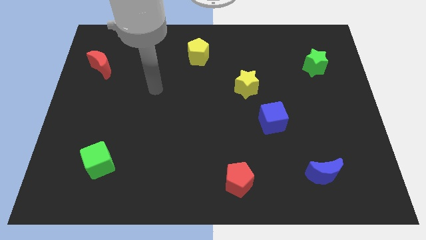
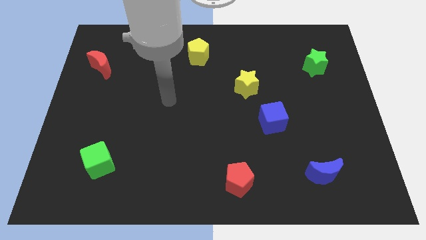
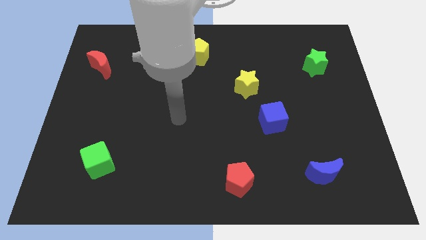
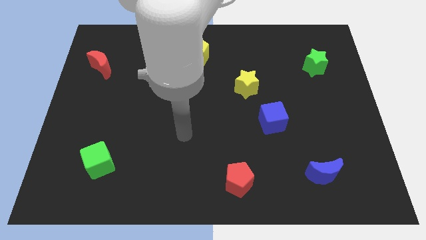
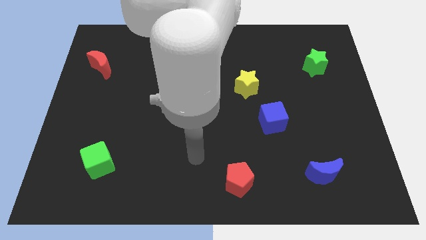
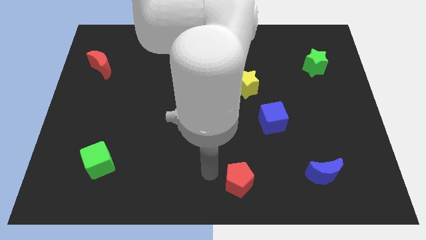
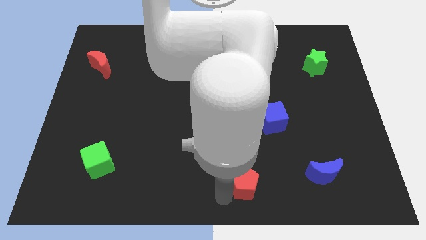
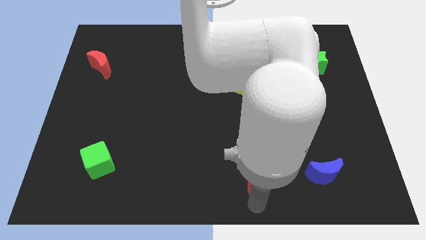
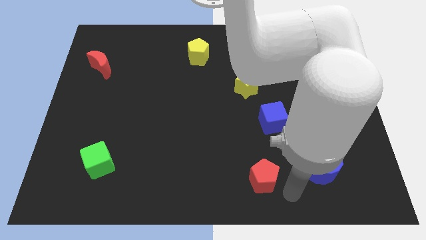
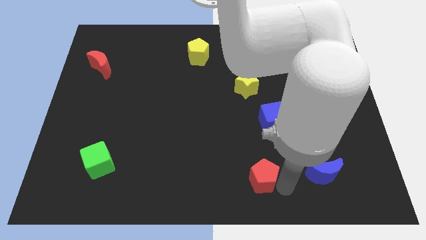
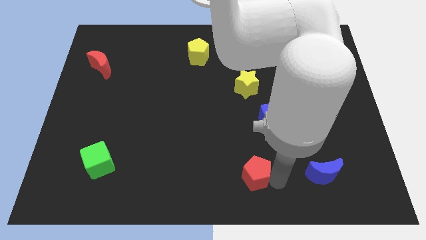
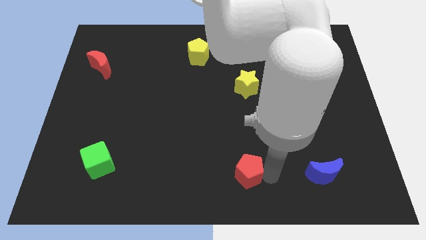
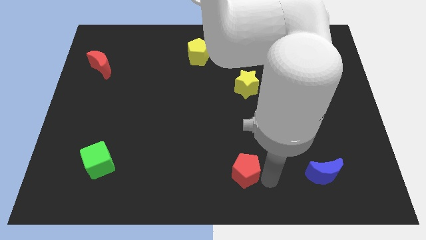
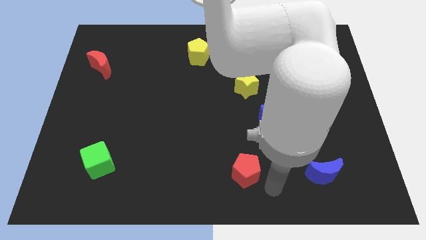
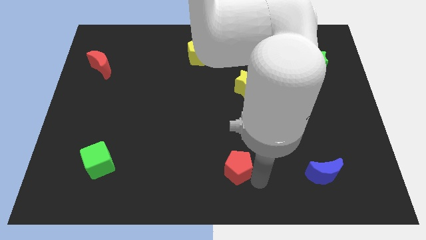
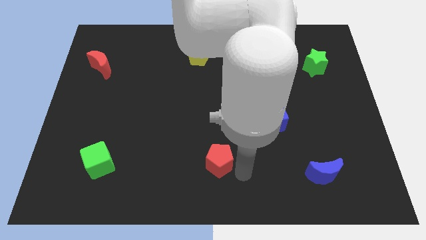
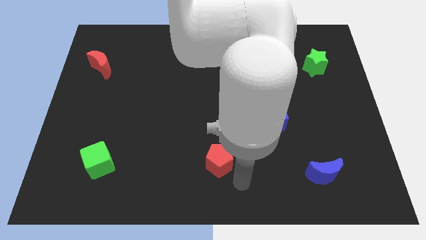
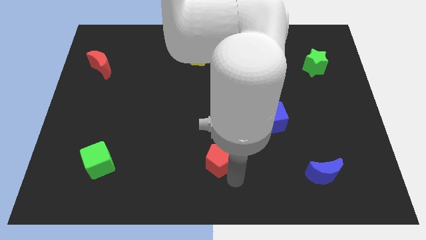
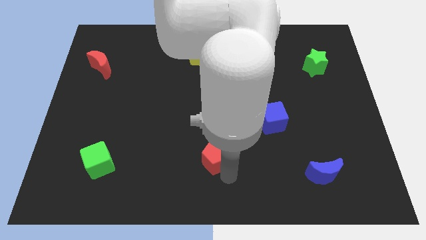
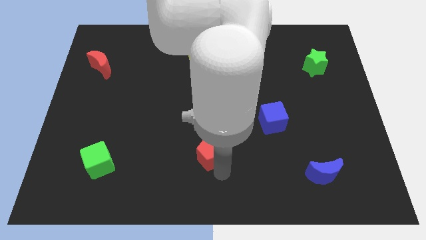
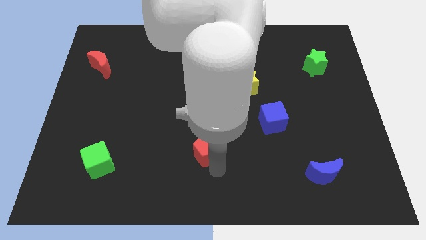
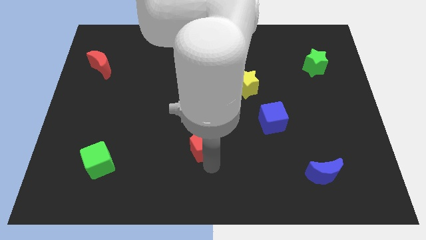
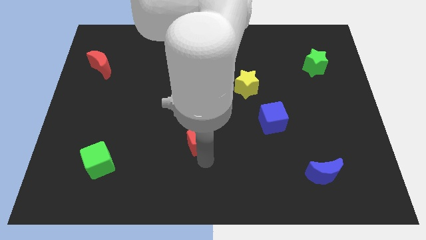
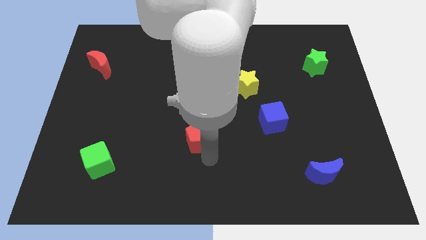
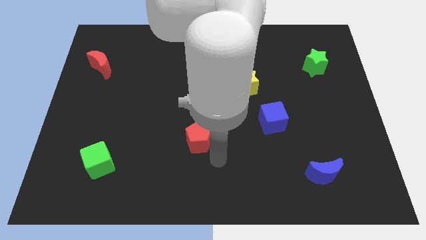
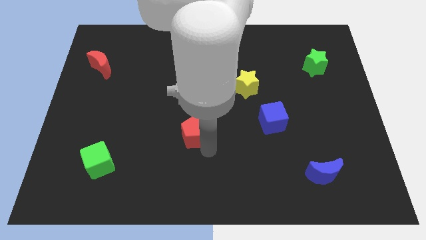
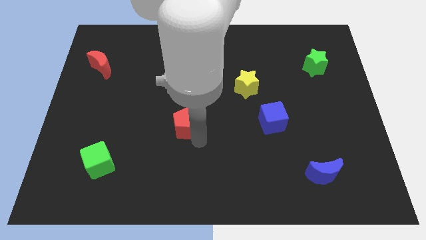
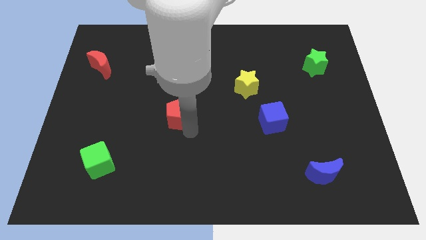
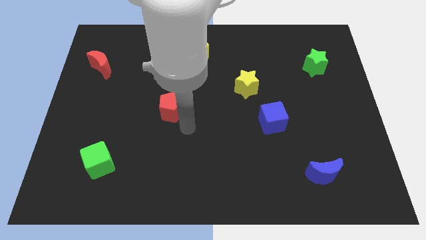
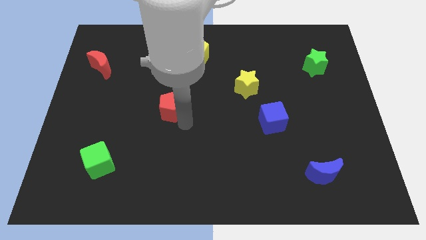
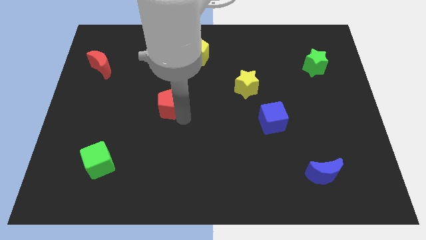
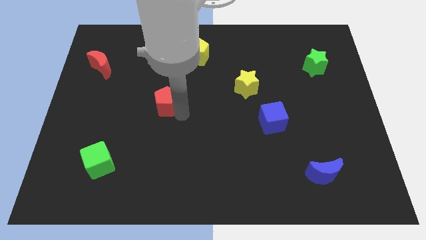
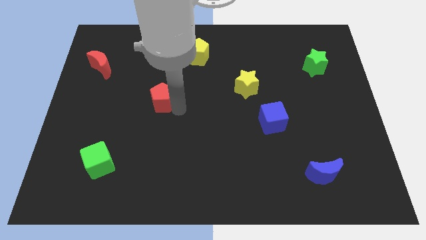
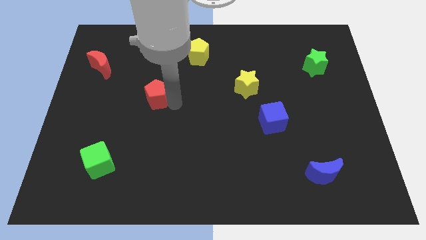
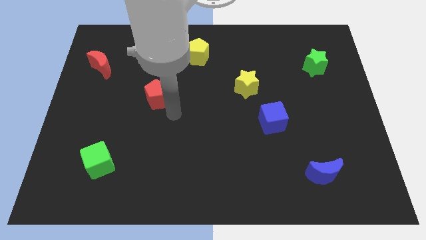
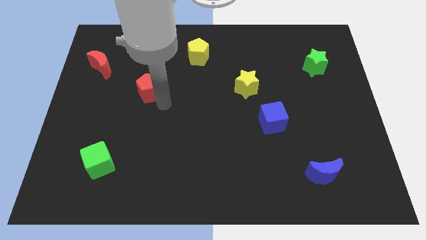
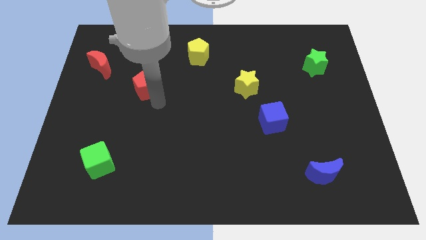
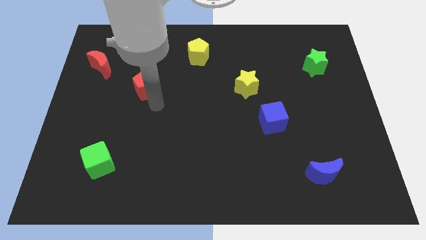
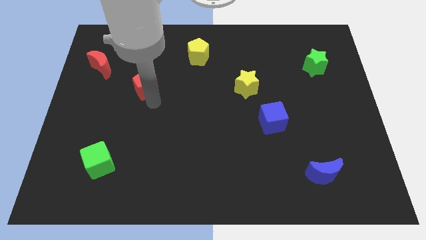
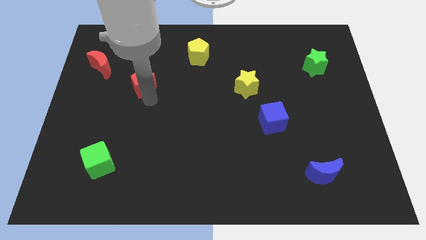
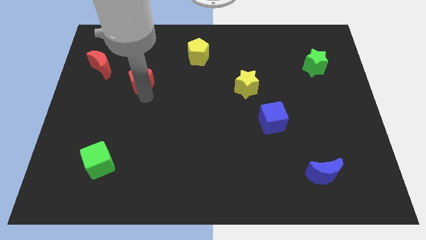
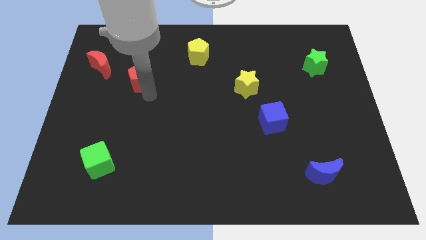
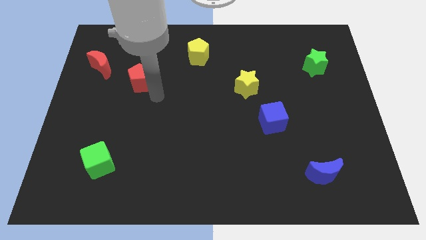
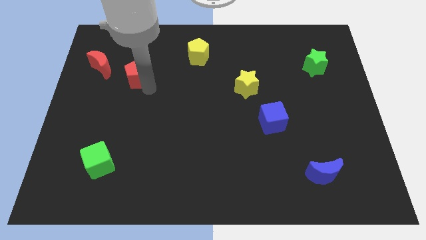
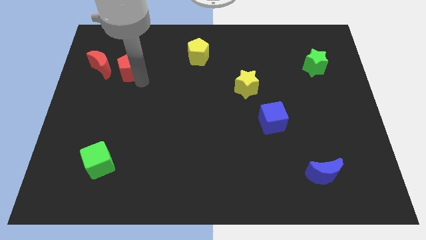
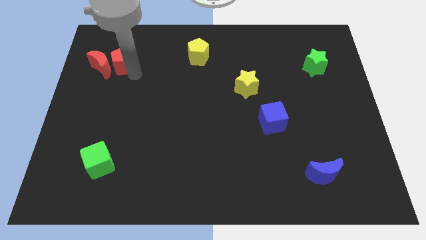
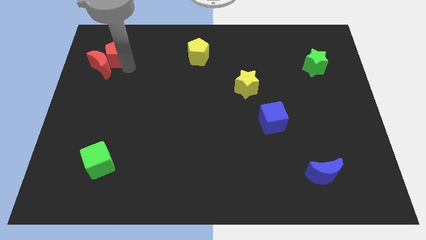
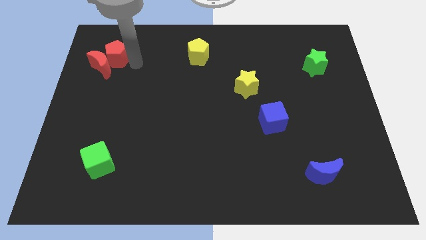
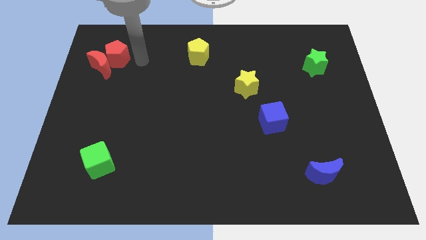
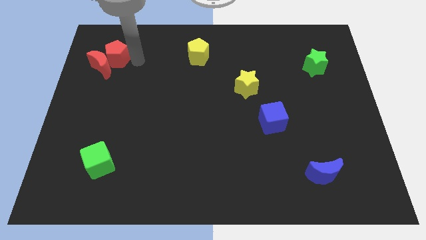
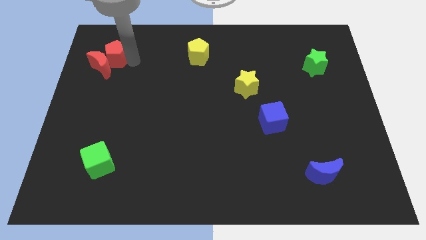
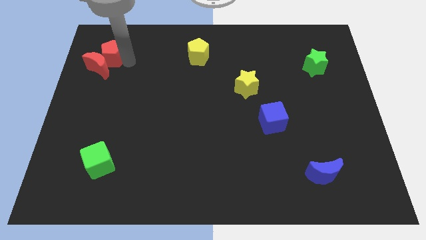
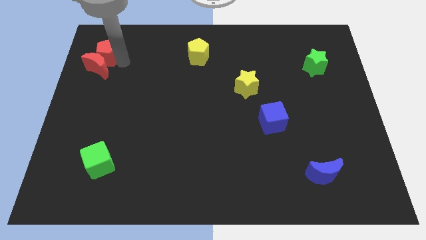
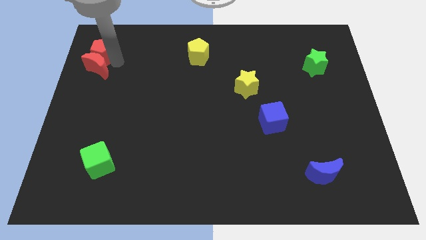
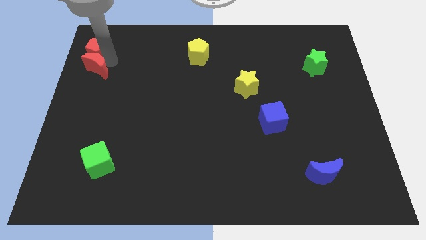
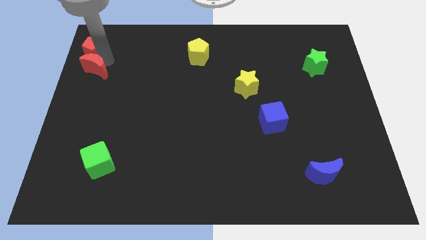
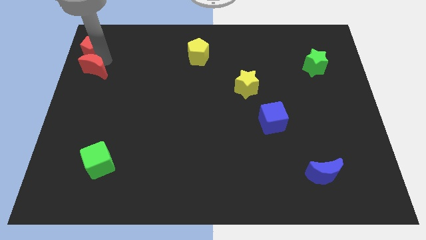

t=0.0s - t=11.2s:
put the red pentagon to the top left of the board
